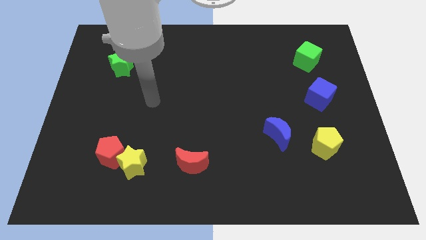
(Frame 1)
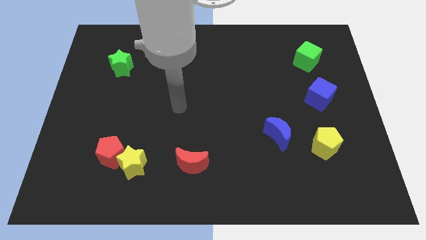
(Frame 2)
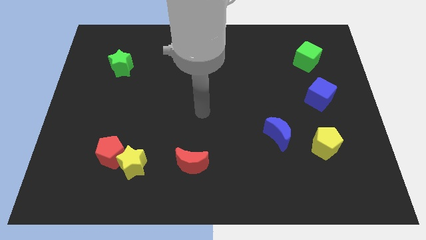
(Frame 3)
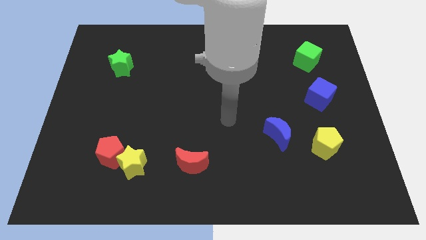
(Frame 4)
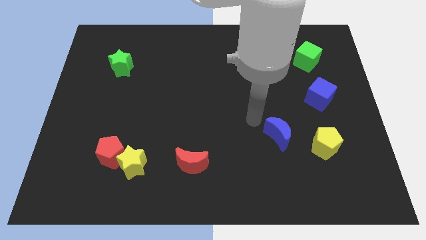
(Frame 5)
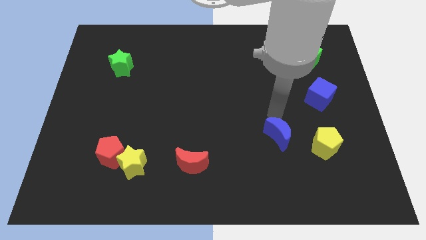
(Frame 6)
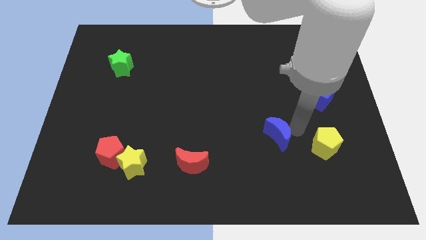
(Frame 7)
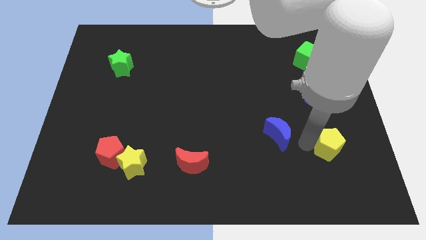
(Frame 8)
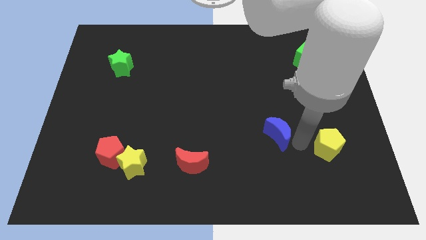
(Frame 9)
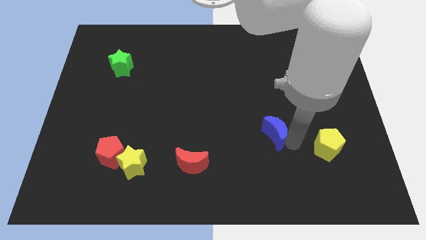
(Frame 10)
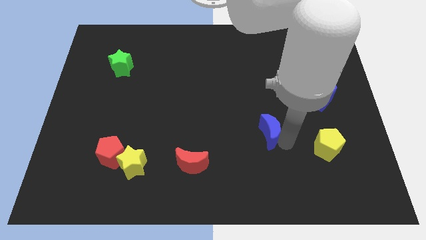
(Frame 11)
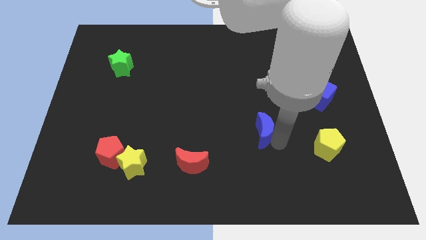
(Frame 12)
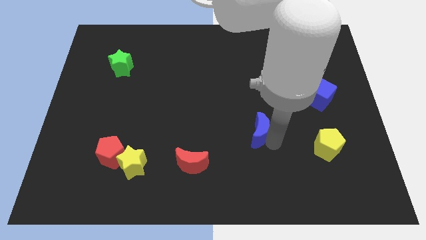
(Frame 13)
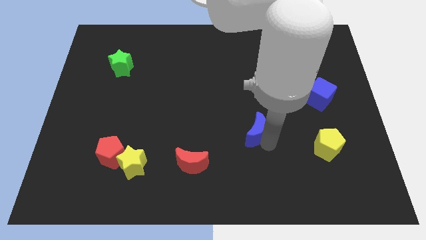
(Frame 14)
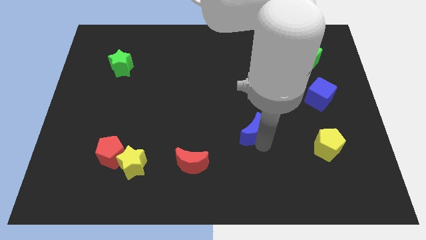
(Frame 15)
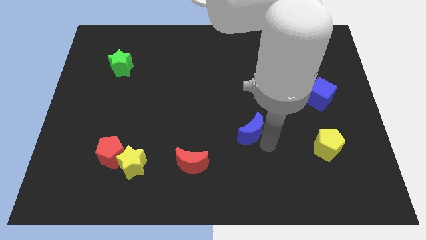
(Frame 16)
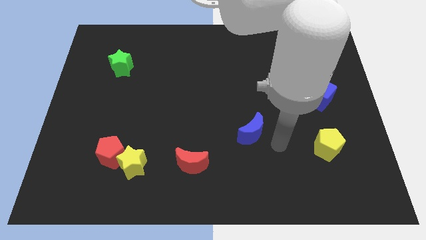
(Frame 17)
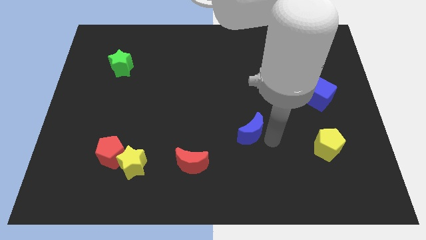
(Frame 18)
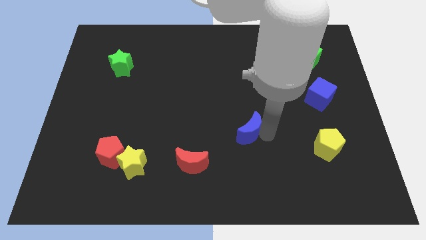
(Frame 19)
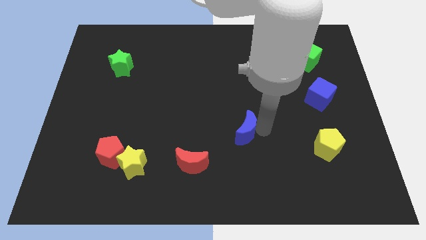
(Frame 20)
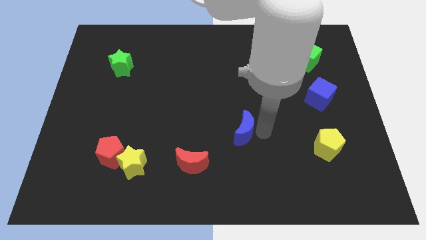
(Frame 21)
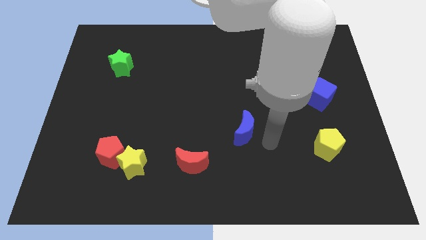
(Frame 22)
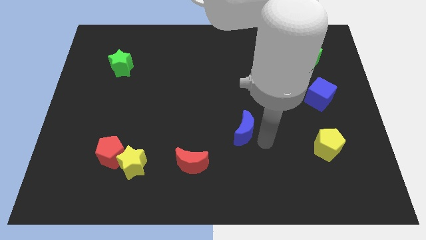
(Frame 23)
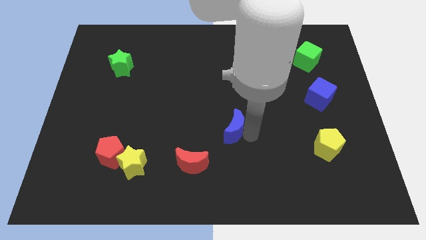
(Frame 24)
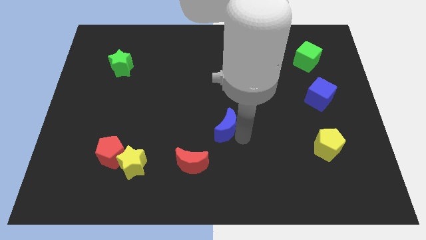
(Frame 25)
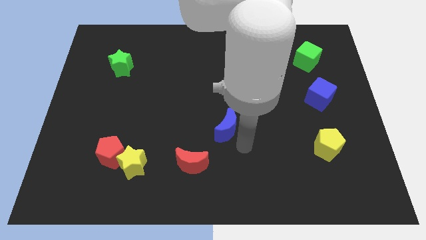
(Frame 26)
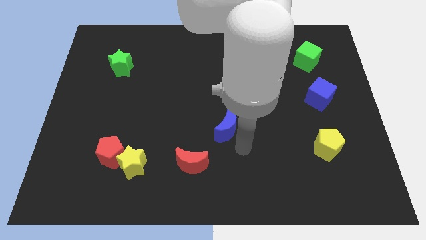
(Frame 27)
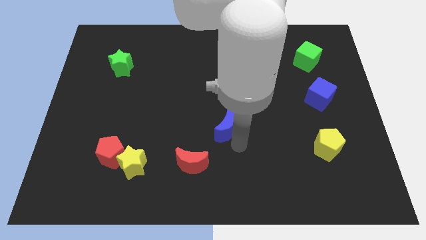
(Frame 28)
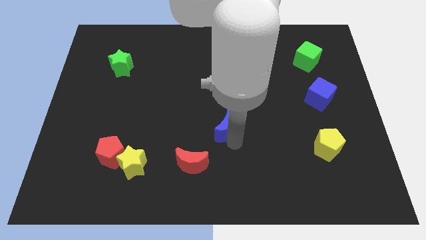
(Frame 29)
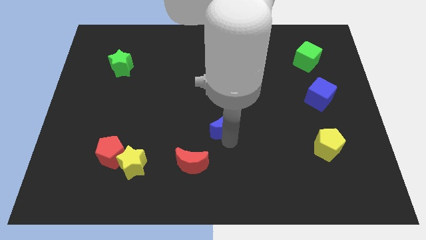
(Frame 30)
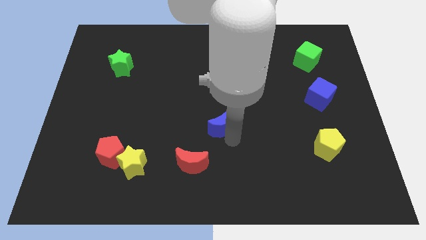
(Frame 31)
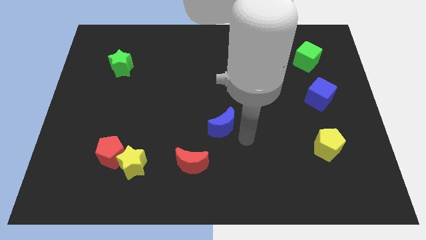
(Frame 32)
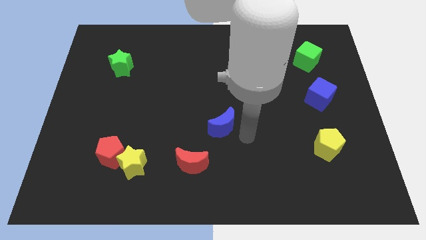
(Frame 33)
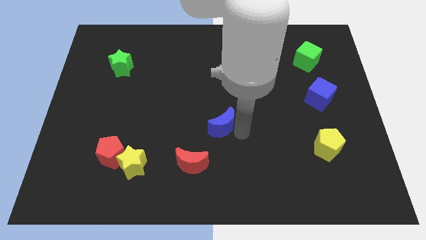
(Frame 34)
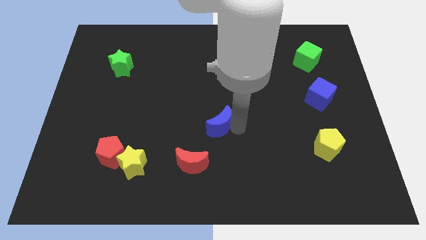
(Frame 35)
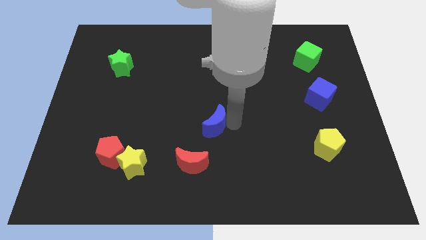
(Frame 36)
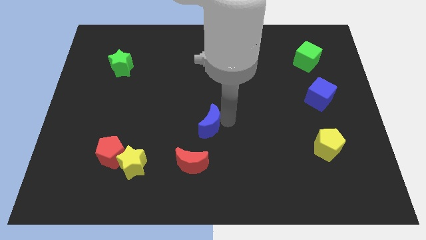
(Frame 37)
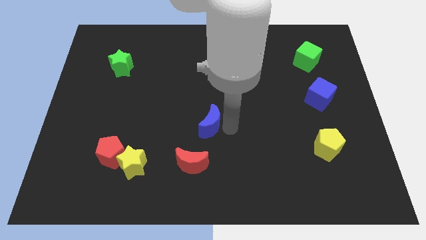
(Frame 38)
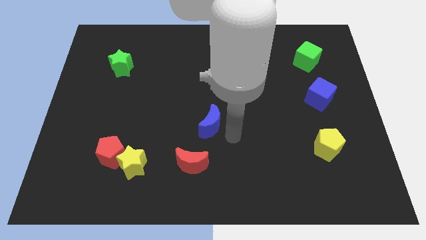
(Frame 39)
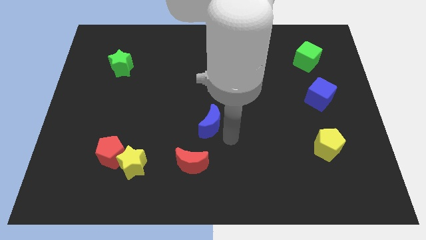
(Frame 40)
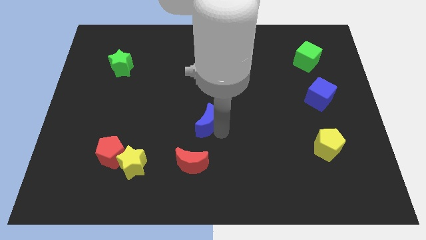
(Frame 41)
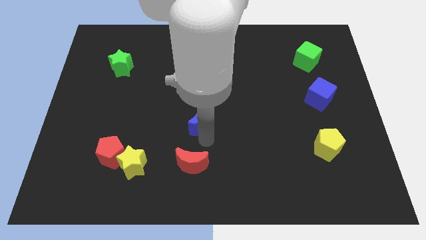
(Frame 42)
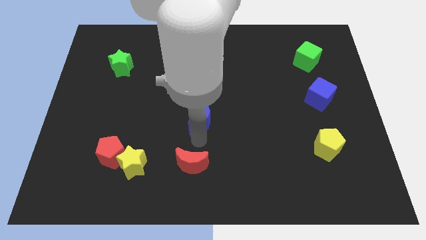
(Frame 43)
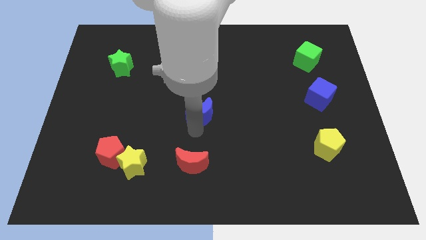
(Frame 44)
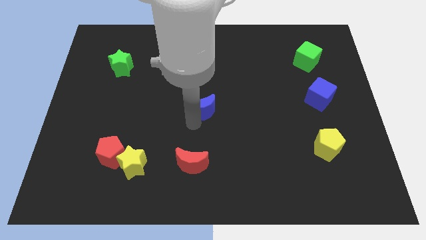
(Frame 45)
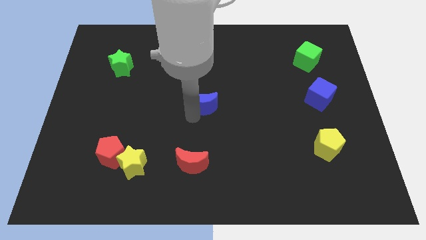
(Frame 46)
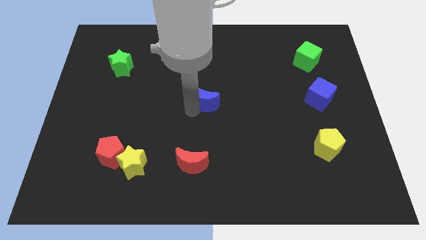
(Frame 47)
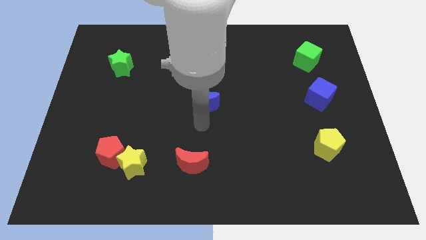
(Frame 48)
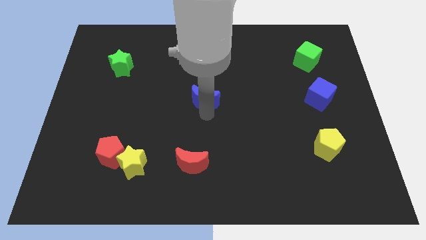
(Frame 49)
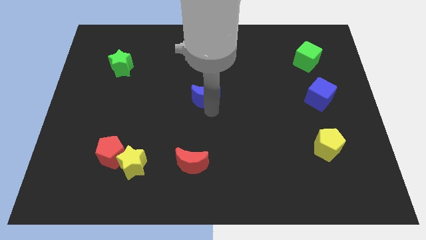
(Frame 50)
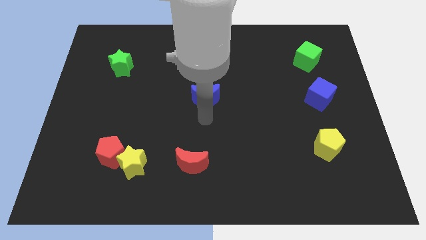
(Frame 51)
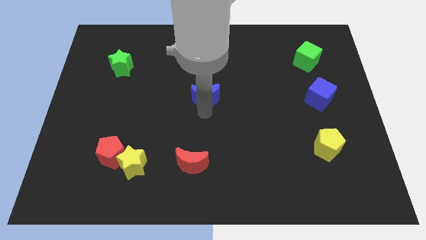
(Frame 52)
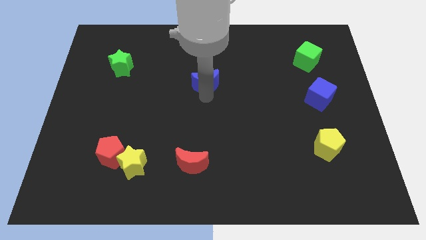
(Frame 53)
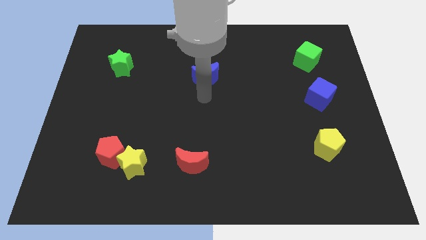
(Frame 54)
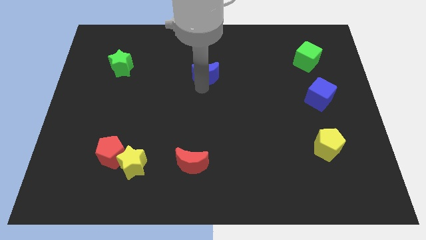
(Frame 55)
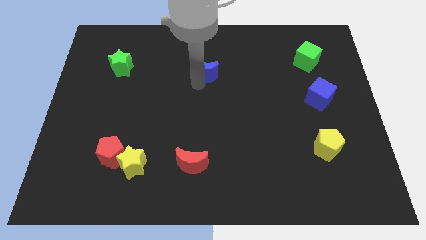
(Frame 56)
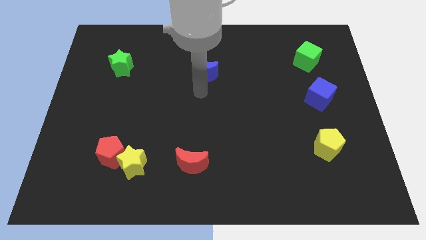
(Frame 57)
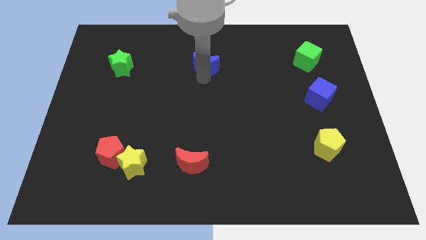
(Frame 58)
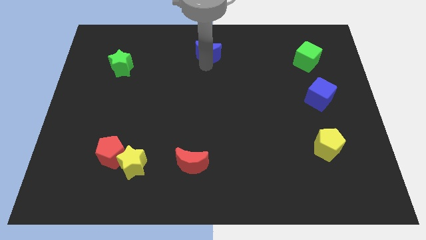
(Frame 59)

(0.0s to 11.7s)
push the blue moon to the towards your base

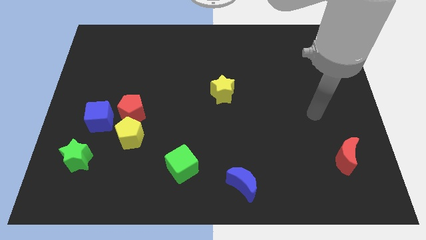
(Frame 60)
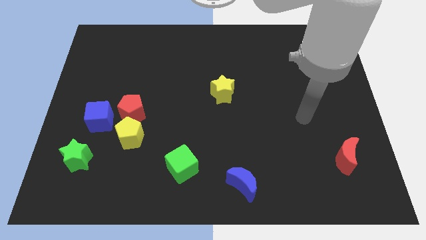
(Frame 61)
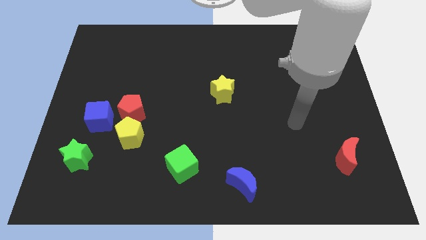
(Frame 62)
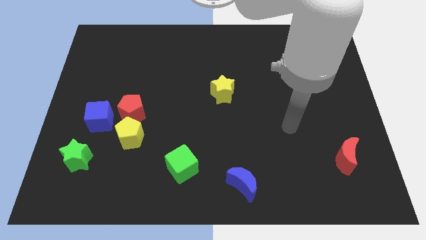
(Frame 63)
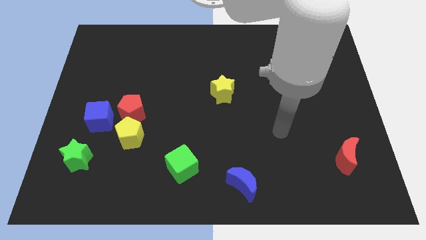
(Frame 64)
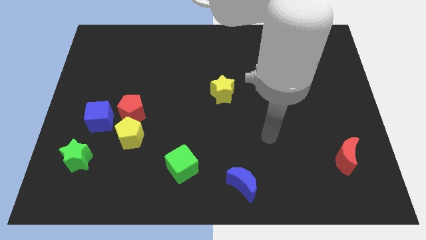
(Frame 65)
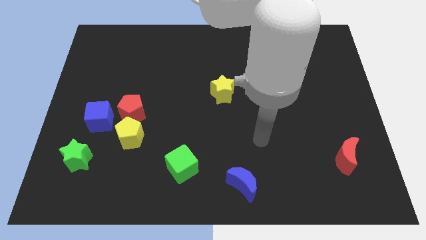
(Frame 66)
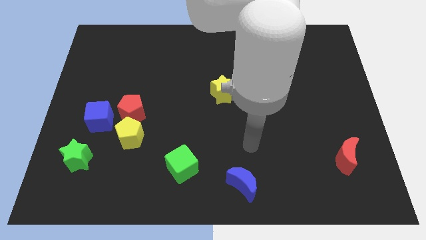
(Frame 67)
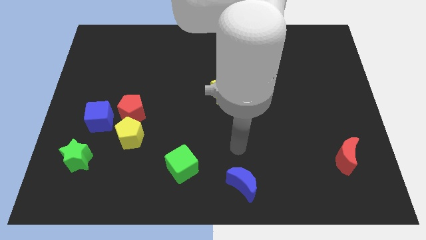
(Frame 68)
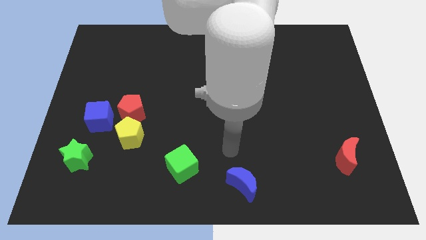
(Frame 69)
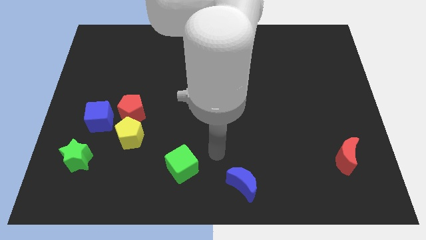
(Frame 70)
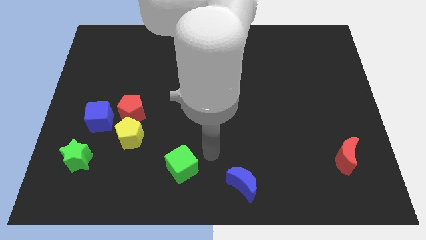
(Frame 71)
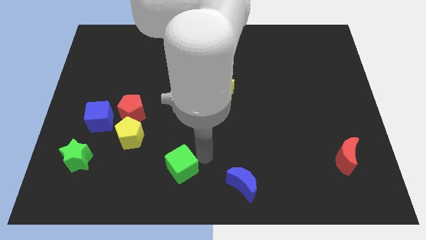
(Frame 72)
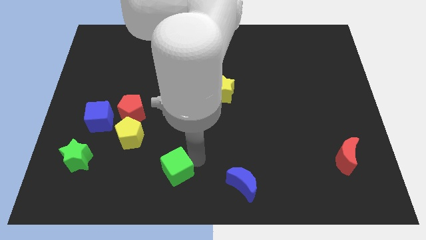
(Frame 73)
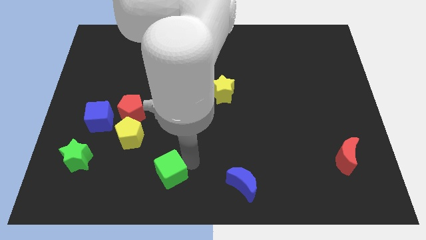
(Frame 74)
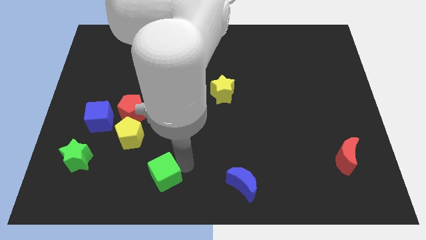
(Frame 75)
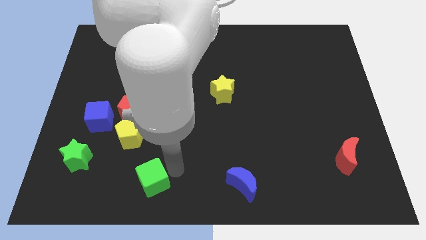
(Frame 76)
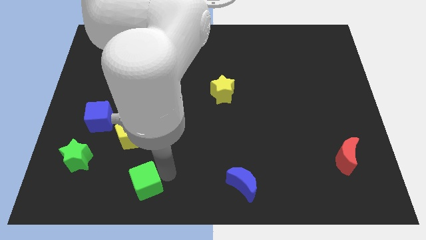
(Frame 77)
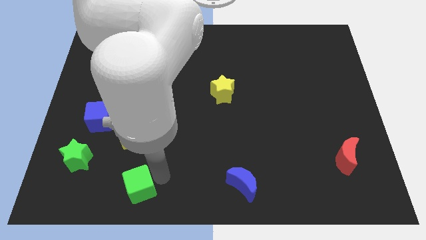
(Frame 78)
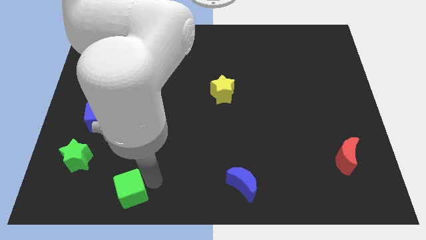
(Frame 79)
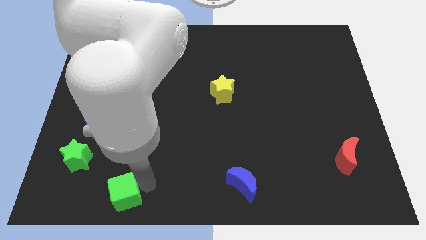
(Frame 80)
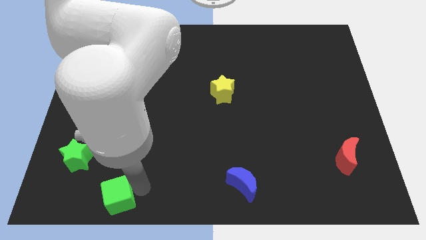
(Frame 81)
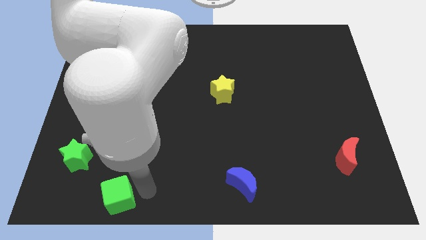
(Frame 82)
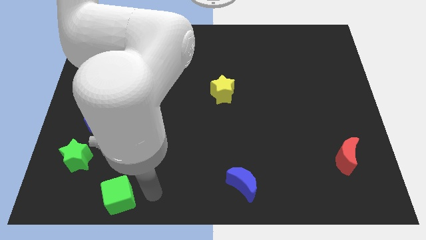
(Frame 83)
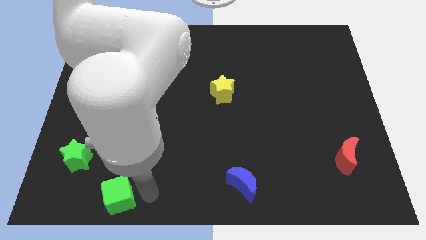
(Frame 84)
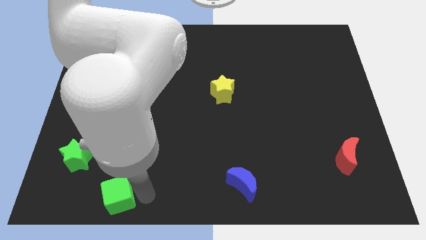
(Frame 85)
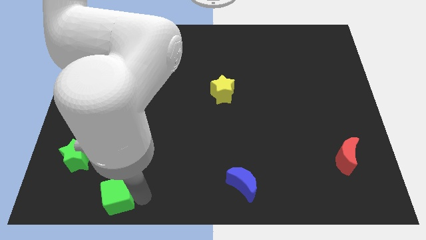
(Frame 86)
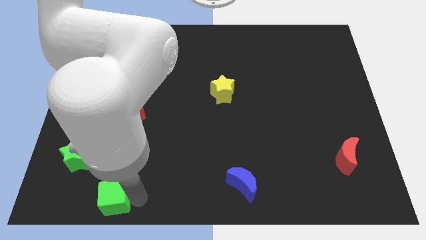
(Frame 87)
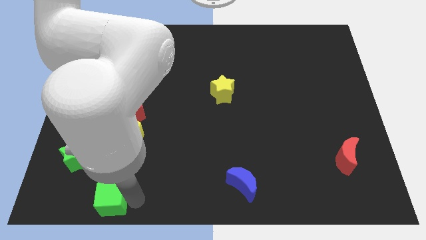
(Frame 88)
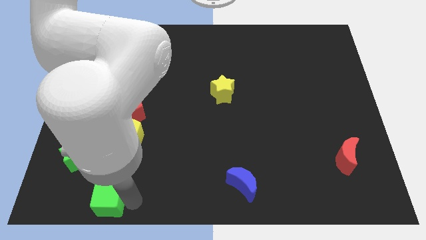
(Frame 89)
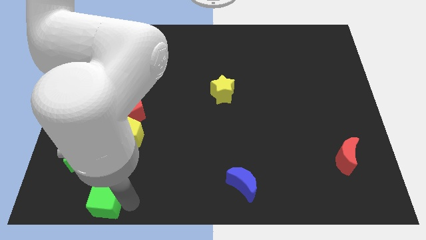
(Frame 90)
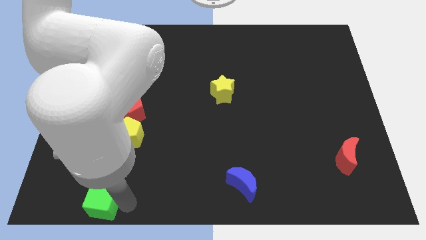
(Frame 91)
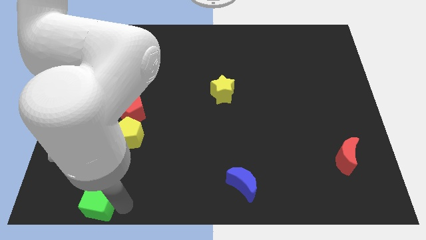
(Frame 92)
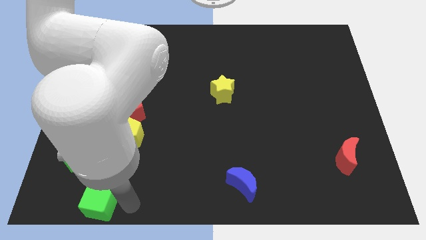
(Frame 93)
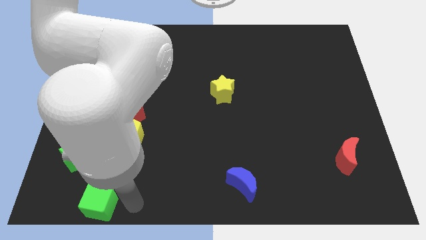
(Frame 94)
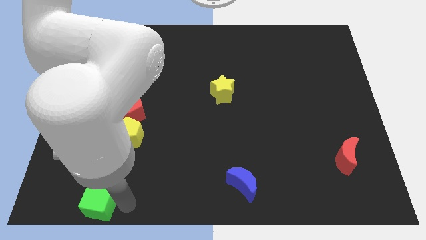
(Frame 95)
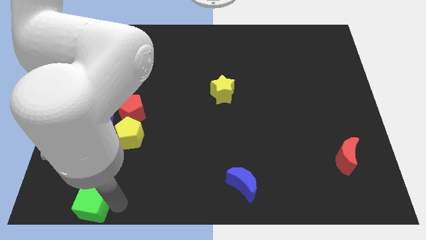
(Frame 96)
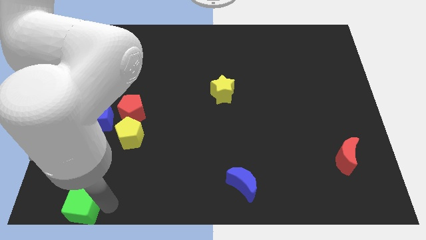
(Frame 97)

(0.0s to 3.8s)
slide the green cube to the lower left corner
